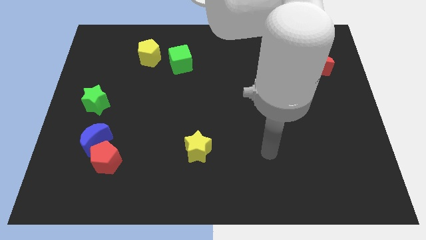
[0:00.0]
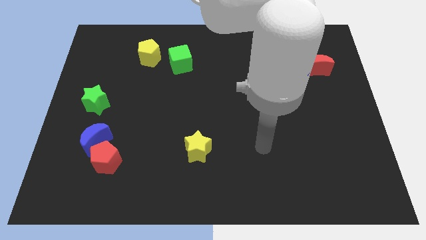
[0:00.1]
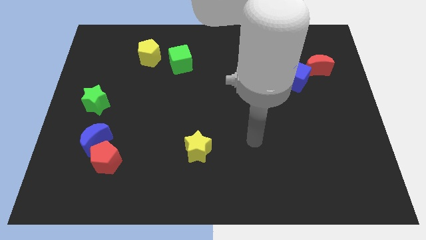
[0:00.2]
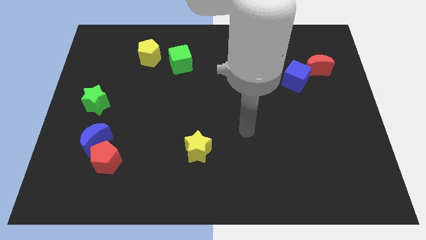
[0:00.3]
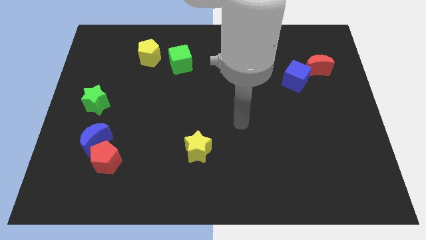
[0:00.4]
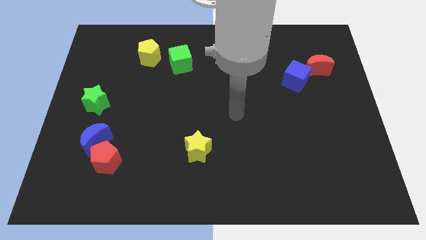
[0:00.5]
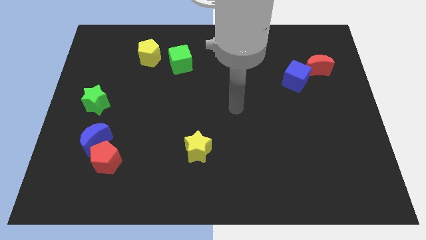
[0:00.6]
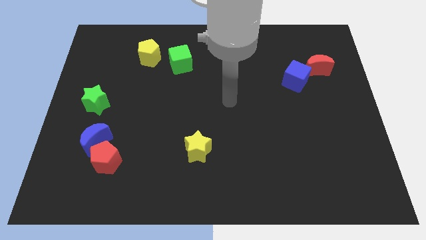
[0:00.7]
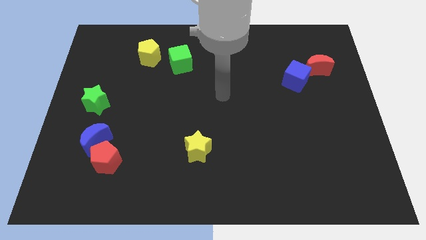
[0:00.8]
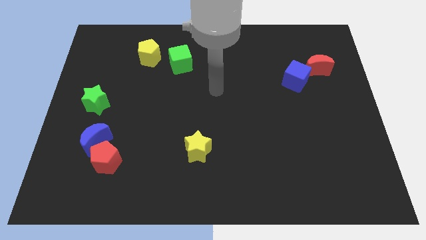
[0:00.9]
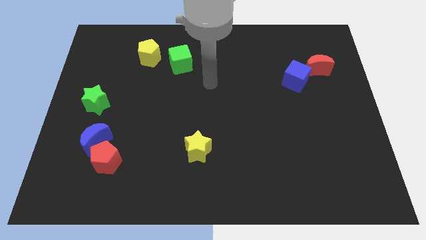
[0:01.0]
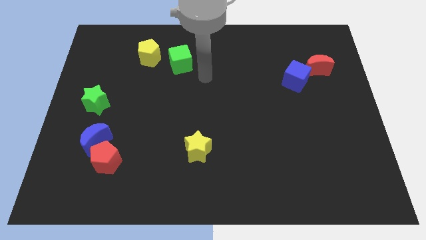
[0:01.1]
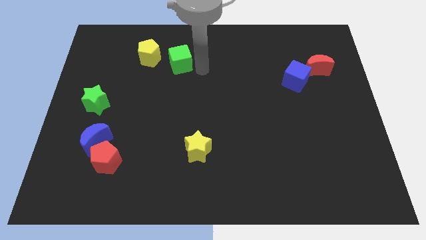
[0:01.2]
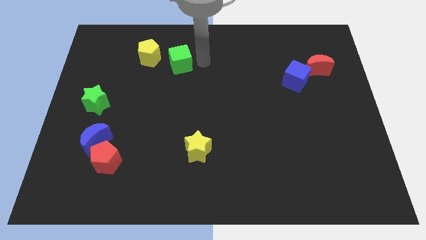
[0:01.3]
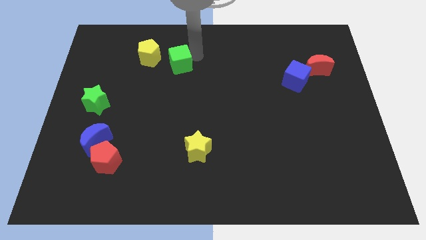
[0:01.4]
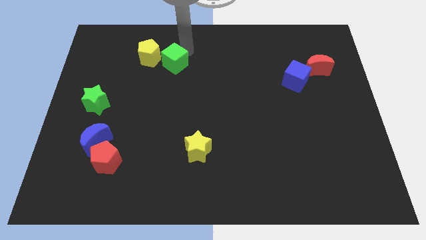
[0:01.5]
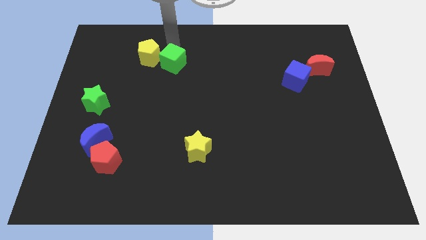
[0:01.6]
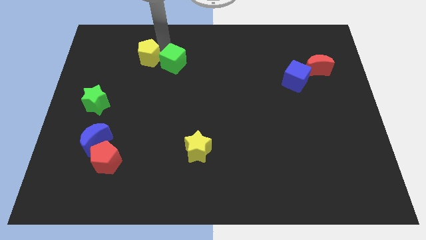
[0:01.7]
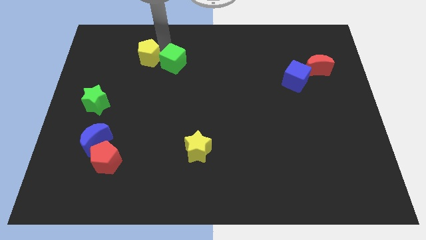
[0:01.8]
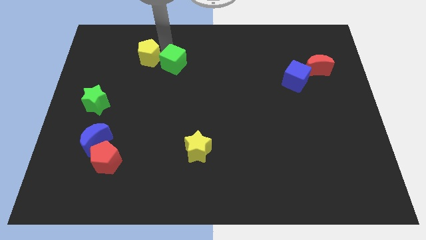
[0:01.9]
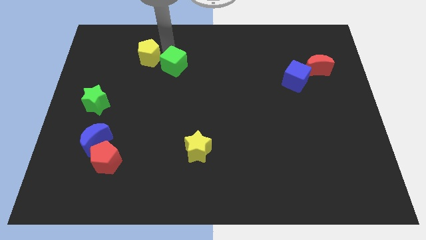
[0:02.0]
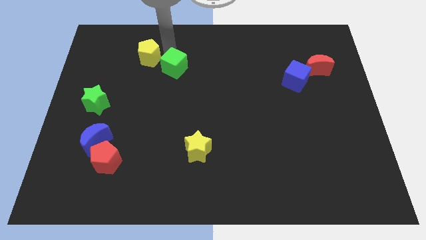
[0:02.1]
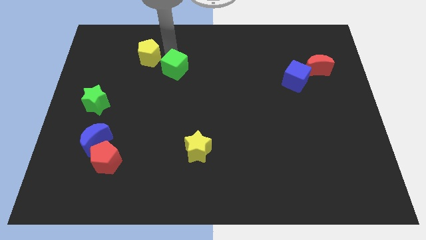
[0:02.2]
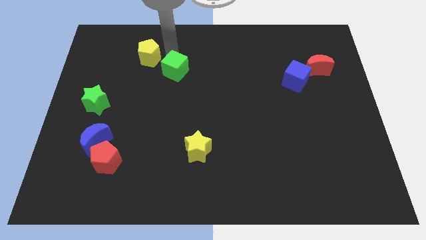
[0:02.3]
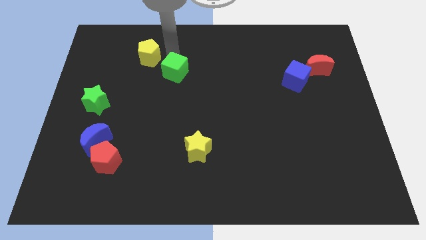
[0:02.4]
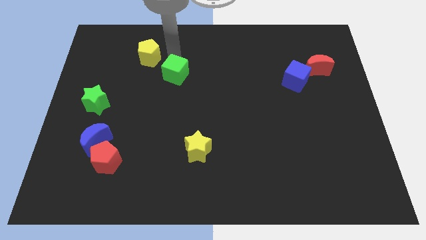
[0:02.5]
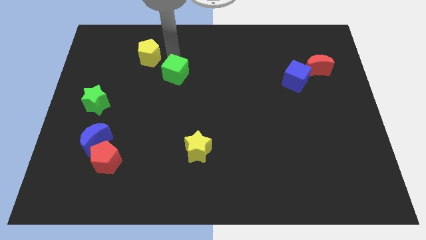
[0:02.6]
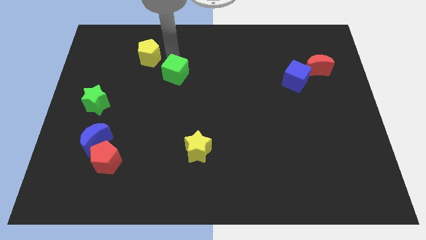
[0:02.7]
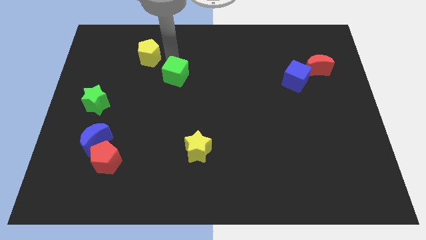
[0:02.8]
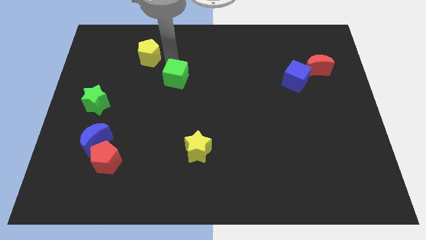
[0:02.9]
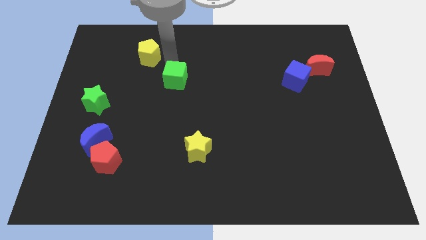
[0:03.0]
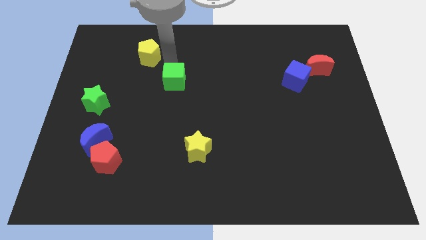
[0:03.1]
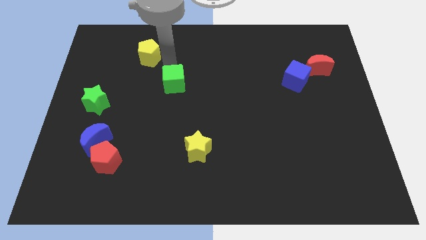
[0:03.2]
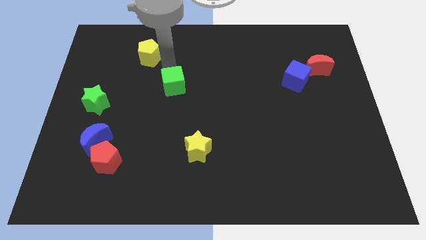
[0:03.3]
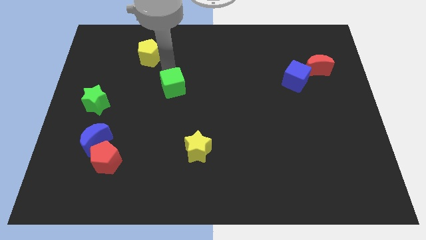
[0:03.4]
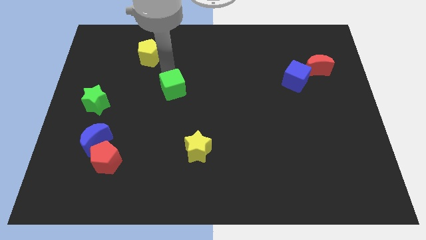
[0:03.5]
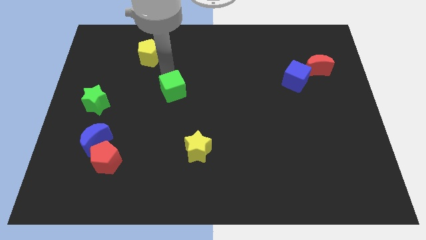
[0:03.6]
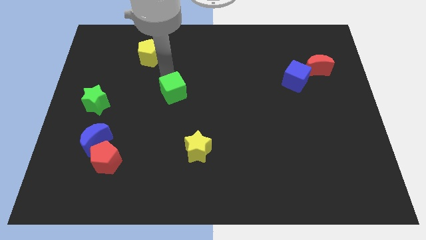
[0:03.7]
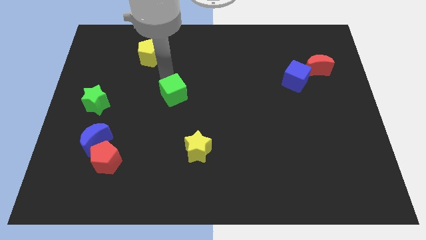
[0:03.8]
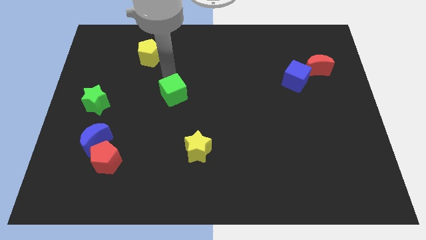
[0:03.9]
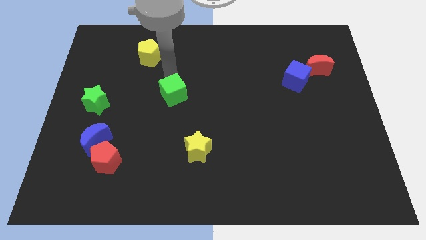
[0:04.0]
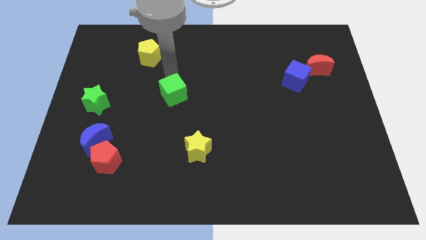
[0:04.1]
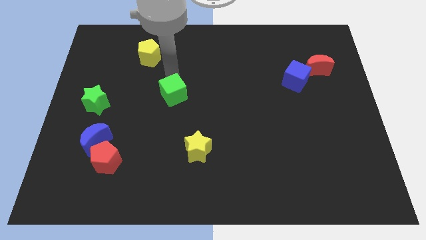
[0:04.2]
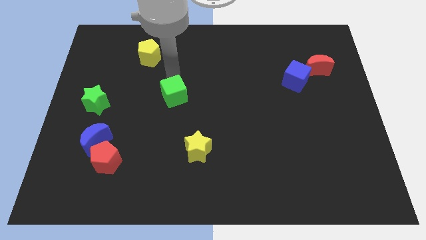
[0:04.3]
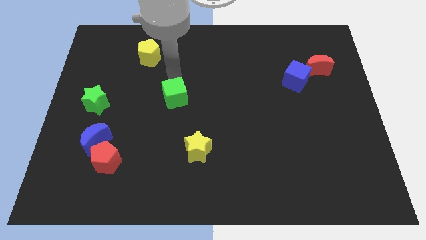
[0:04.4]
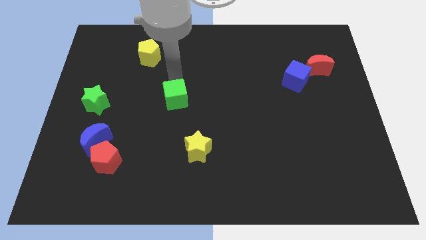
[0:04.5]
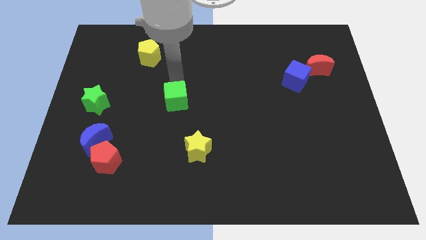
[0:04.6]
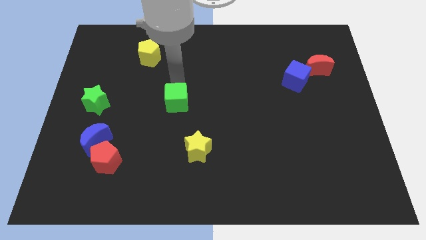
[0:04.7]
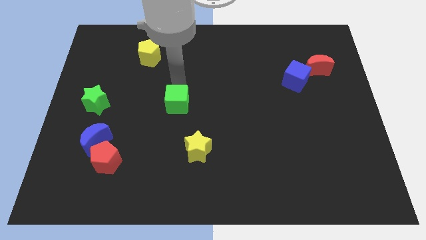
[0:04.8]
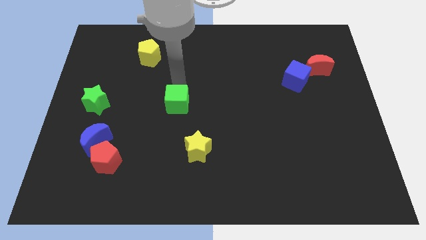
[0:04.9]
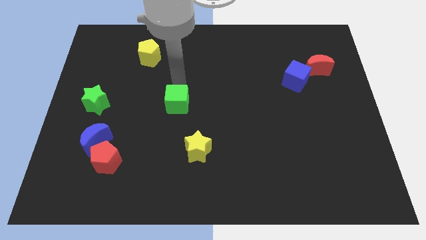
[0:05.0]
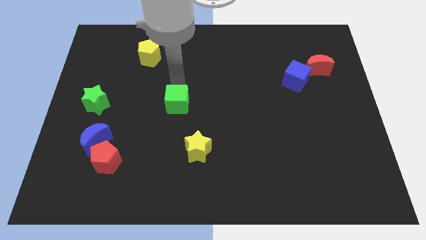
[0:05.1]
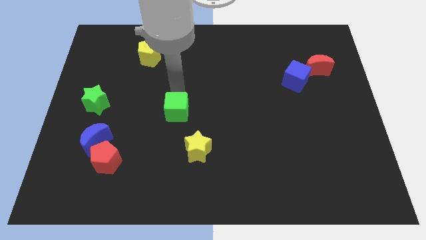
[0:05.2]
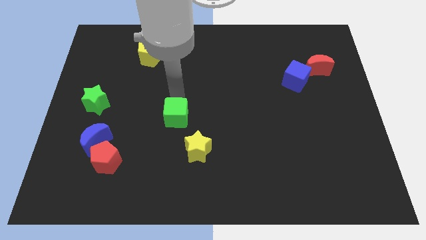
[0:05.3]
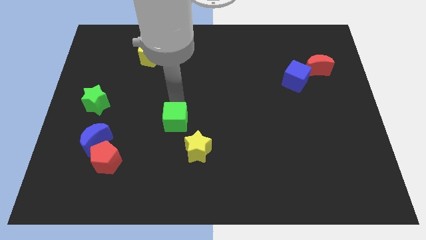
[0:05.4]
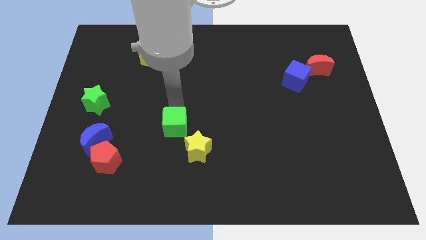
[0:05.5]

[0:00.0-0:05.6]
move the green cube down

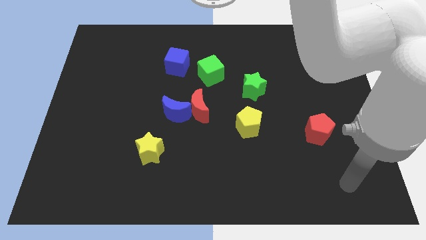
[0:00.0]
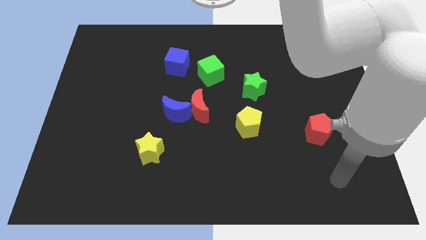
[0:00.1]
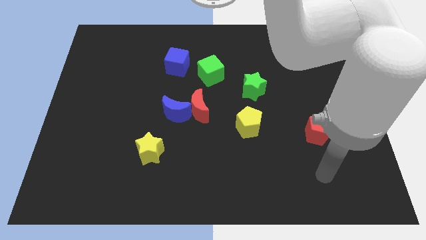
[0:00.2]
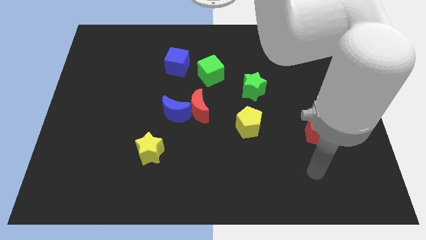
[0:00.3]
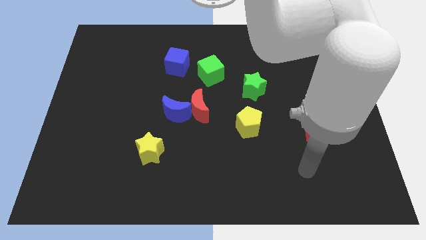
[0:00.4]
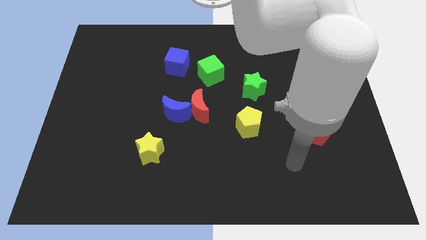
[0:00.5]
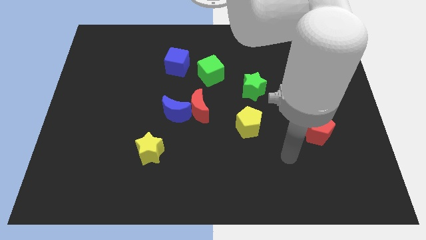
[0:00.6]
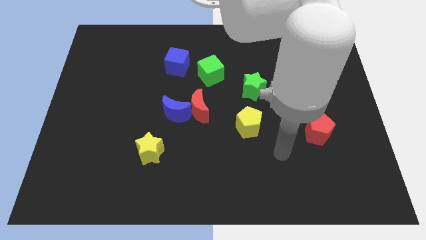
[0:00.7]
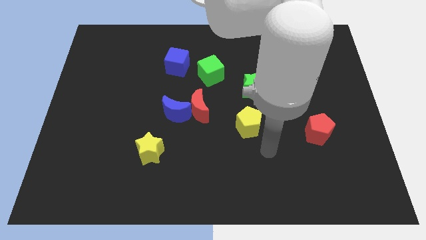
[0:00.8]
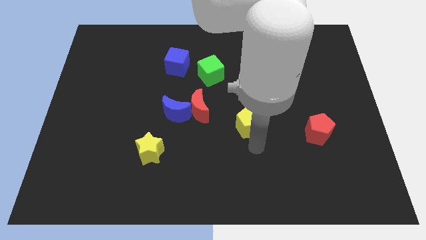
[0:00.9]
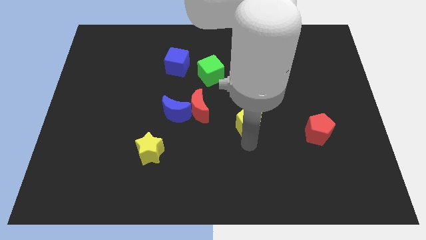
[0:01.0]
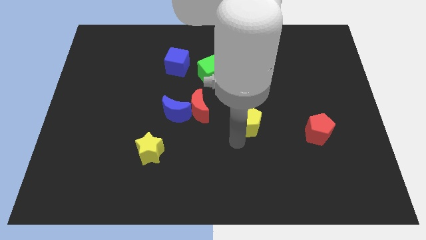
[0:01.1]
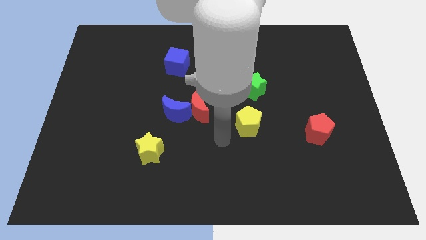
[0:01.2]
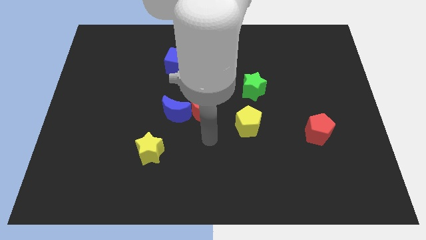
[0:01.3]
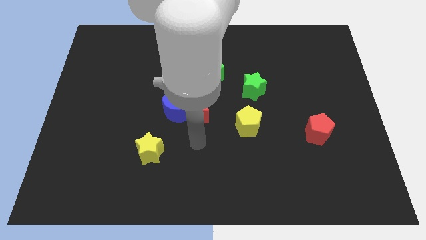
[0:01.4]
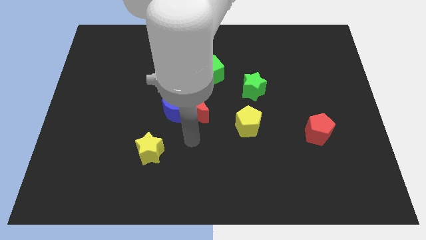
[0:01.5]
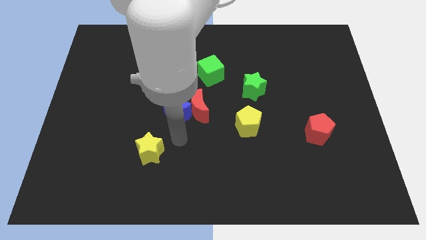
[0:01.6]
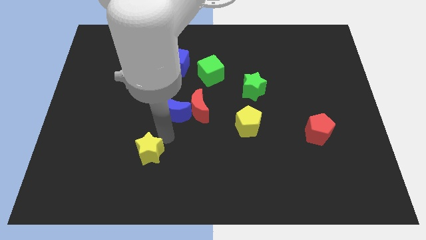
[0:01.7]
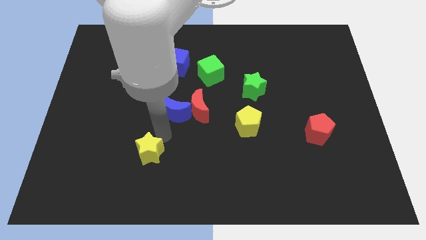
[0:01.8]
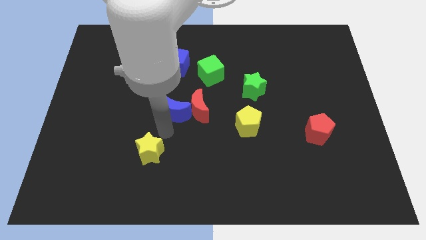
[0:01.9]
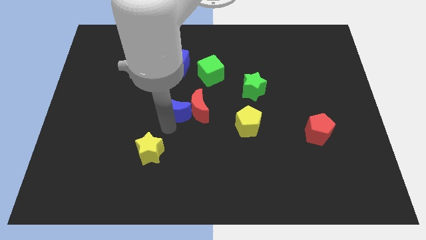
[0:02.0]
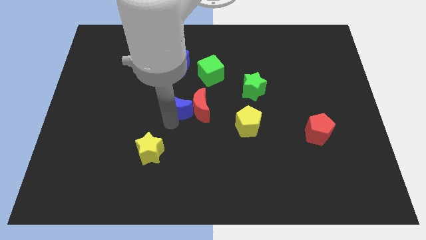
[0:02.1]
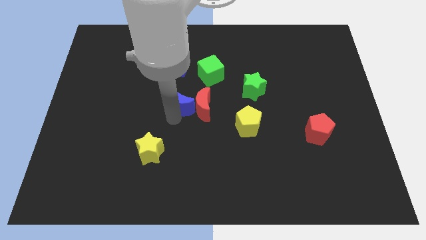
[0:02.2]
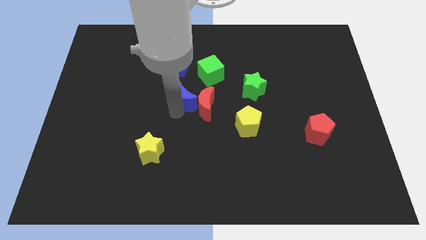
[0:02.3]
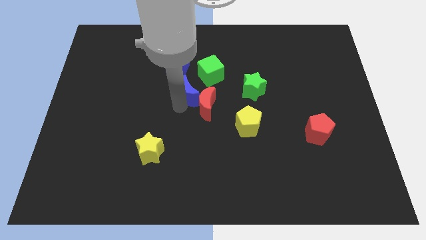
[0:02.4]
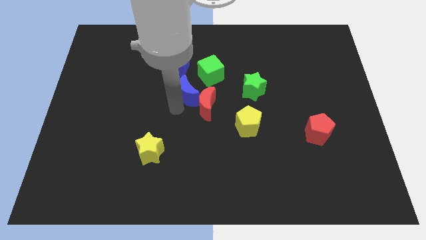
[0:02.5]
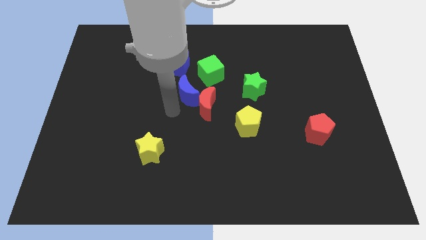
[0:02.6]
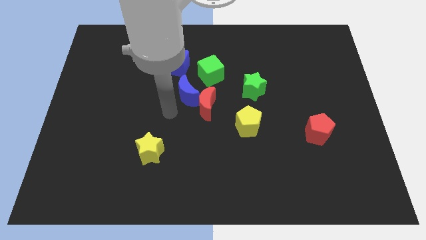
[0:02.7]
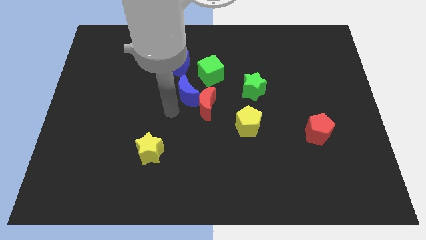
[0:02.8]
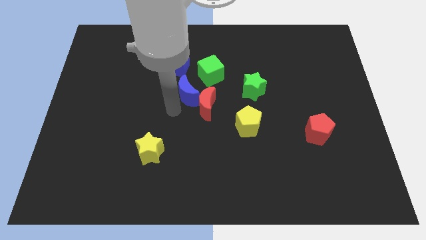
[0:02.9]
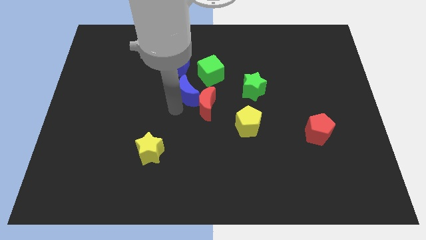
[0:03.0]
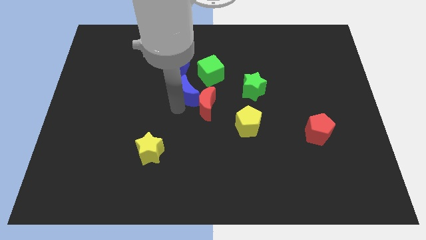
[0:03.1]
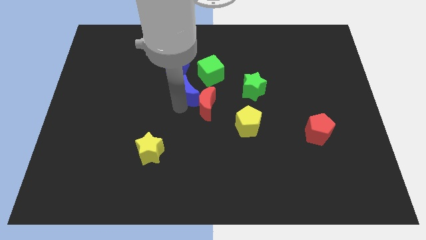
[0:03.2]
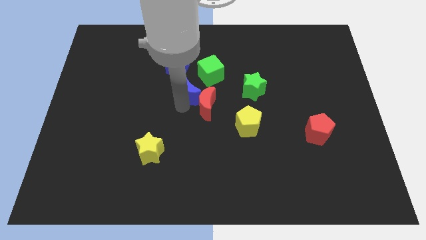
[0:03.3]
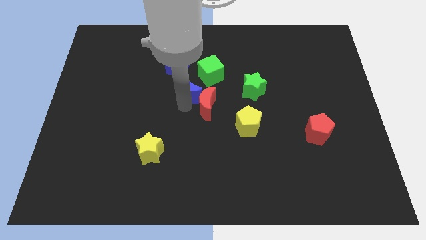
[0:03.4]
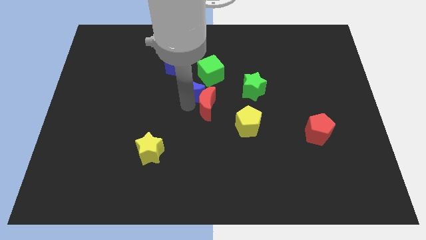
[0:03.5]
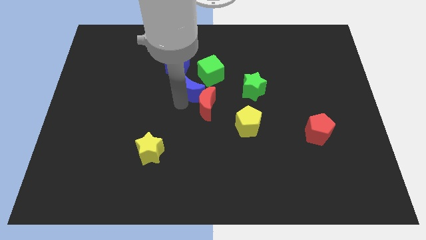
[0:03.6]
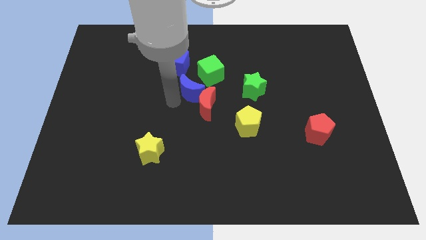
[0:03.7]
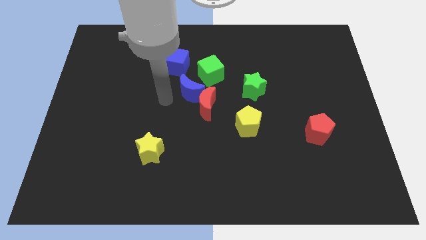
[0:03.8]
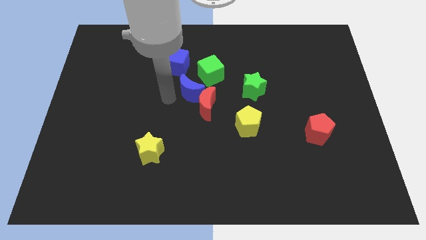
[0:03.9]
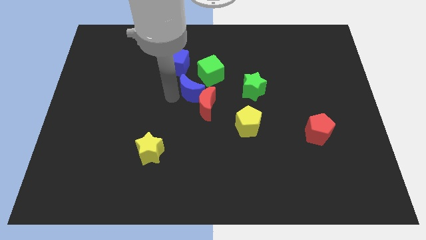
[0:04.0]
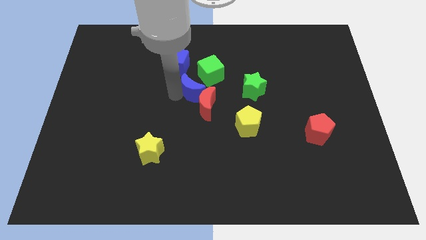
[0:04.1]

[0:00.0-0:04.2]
push the blue moon a little bit upwards and right diagonally
